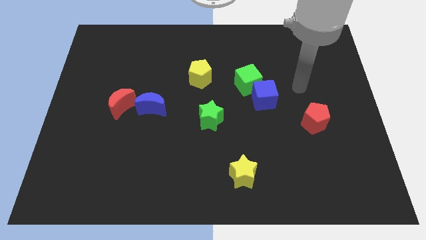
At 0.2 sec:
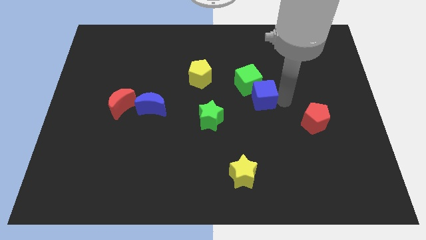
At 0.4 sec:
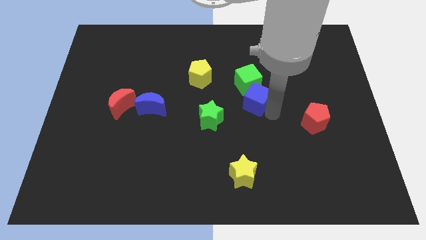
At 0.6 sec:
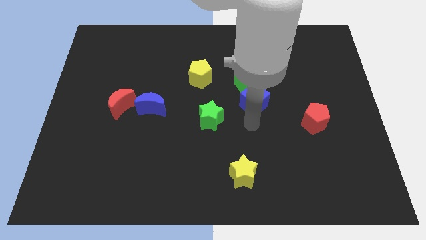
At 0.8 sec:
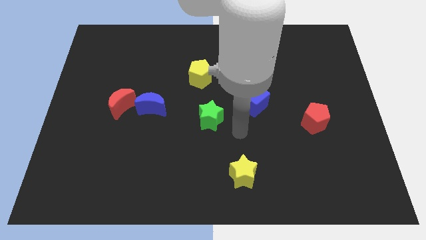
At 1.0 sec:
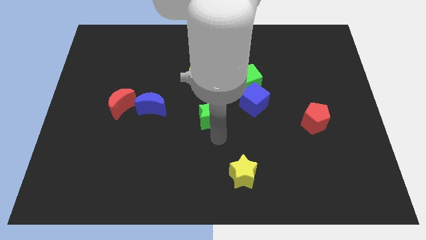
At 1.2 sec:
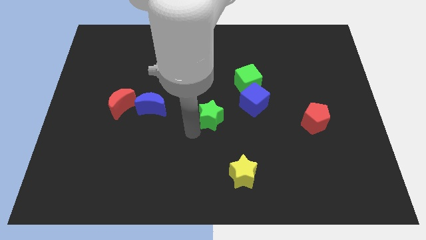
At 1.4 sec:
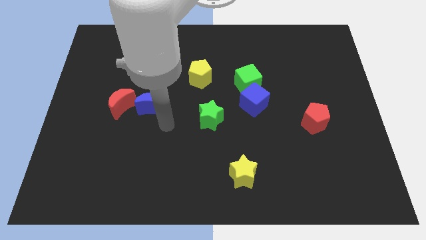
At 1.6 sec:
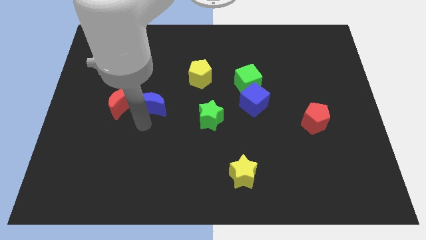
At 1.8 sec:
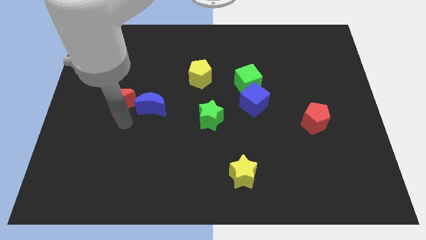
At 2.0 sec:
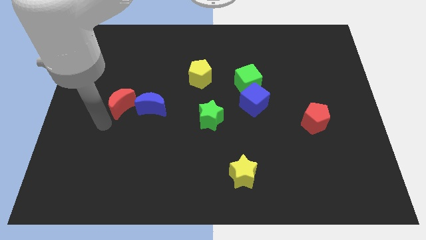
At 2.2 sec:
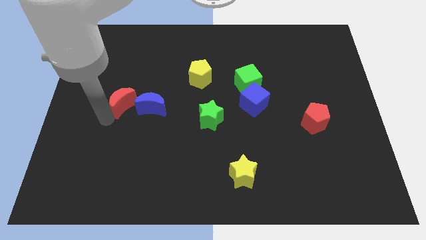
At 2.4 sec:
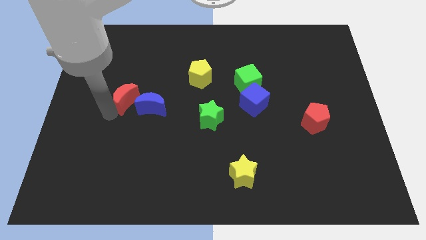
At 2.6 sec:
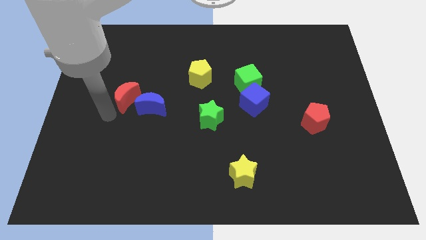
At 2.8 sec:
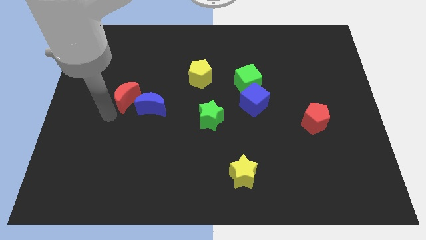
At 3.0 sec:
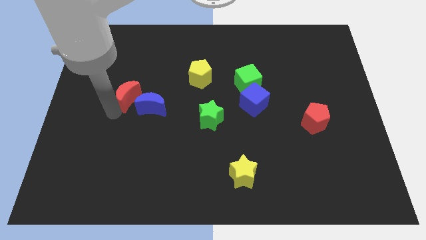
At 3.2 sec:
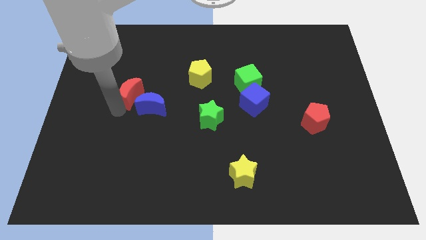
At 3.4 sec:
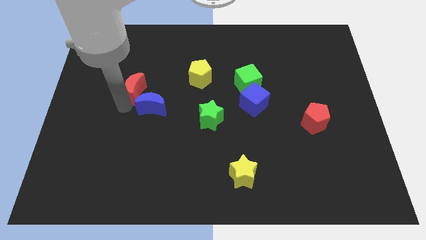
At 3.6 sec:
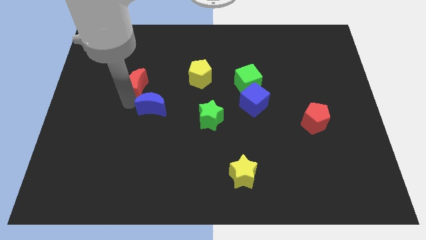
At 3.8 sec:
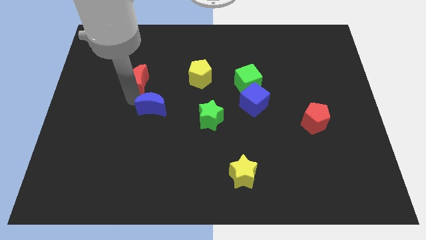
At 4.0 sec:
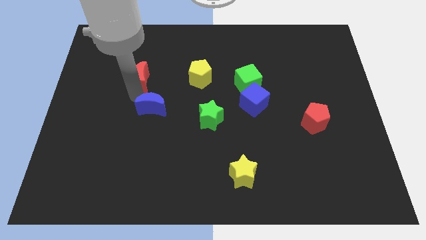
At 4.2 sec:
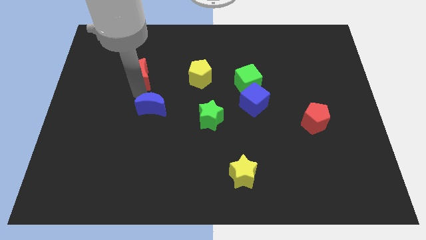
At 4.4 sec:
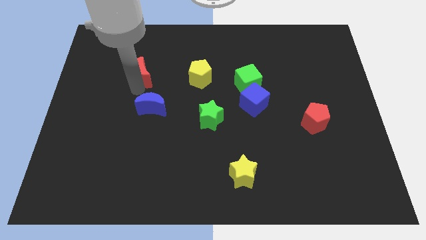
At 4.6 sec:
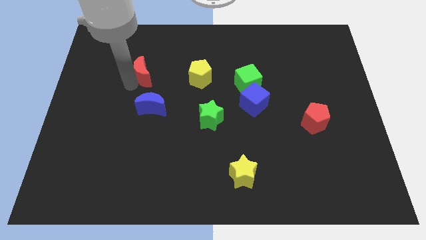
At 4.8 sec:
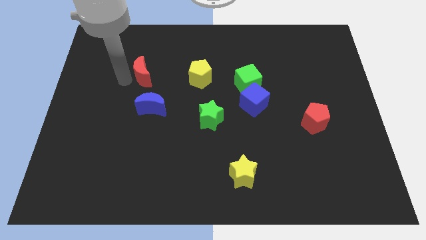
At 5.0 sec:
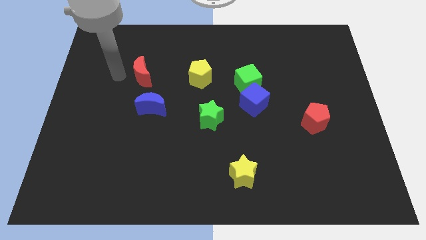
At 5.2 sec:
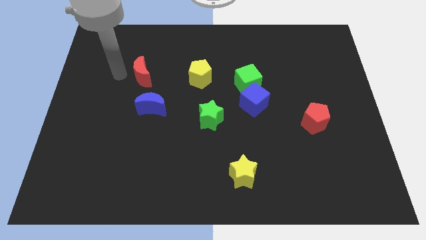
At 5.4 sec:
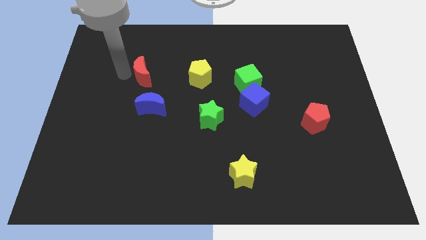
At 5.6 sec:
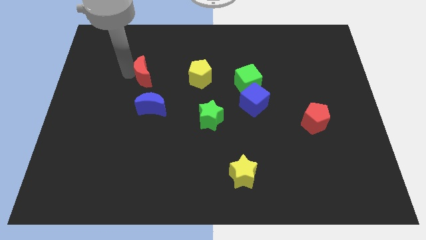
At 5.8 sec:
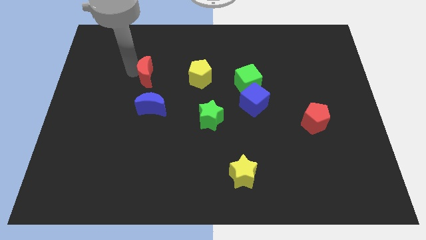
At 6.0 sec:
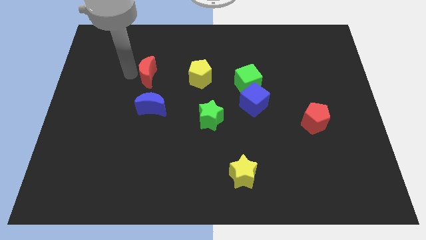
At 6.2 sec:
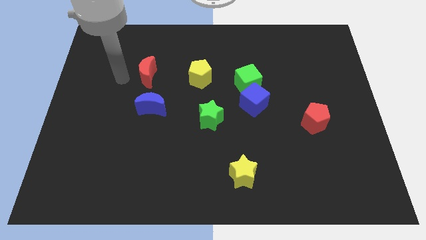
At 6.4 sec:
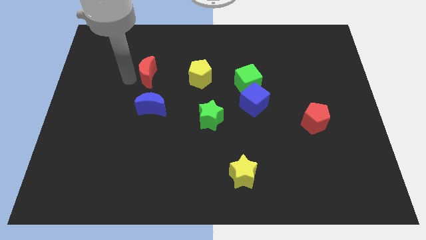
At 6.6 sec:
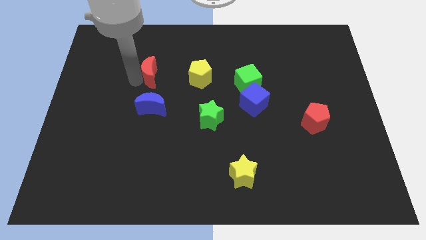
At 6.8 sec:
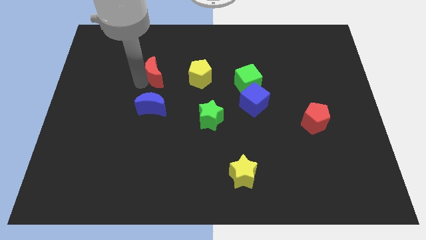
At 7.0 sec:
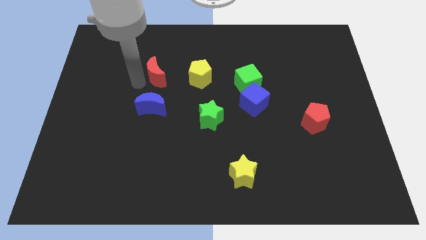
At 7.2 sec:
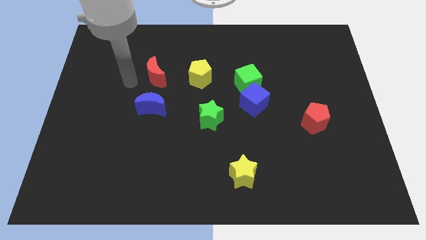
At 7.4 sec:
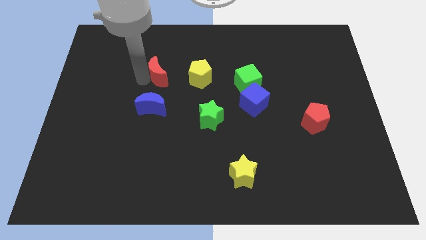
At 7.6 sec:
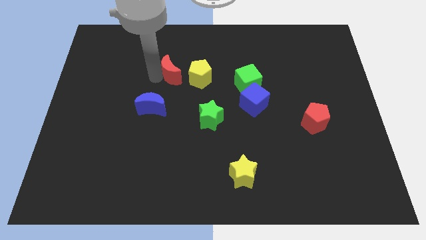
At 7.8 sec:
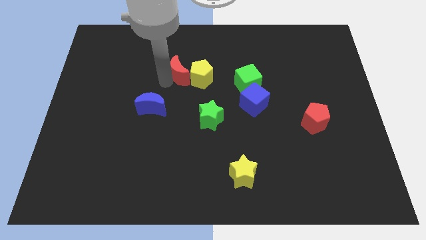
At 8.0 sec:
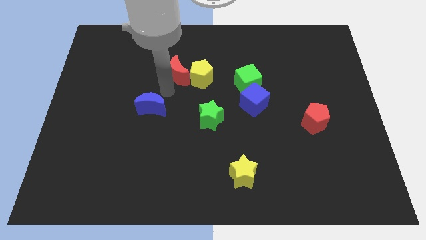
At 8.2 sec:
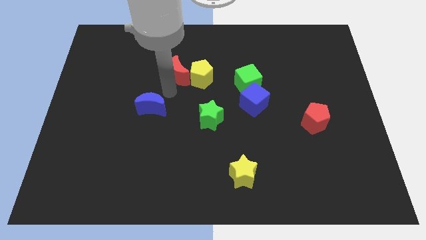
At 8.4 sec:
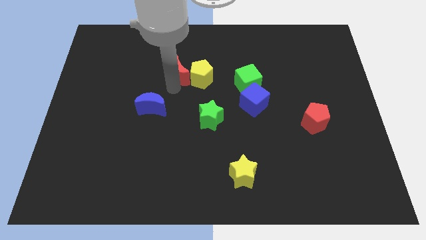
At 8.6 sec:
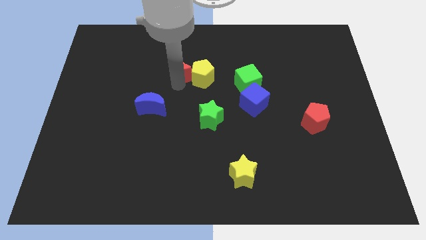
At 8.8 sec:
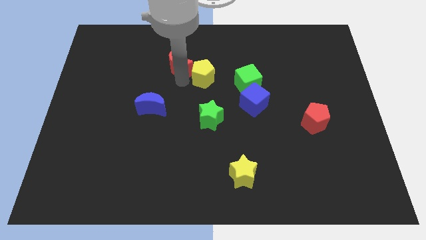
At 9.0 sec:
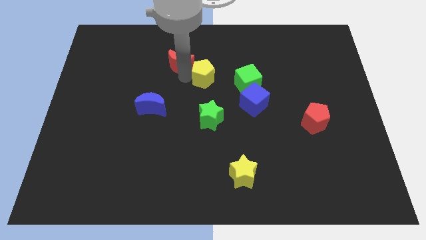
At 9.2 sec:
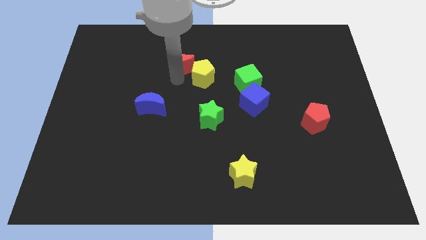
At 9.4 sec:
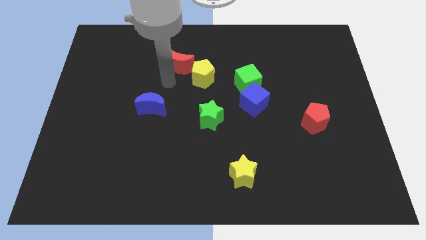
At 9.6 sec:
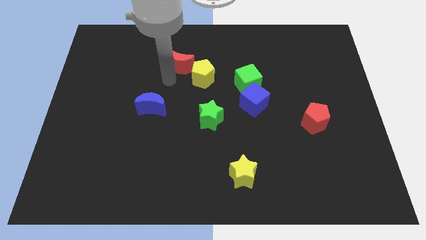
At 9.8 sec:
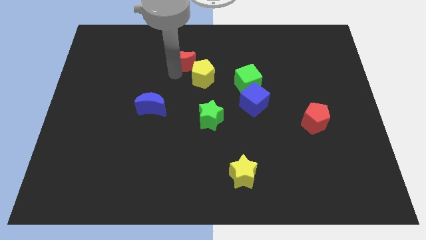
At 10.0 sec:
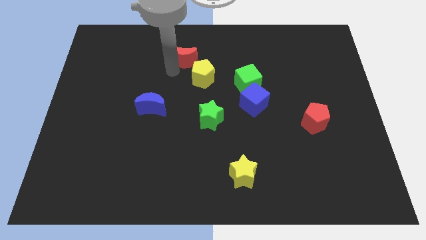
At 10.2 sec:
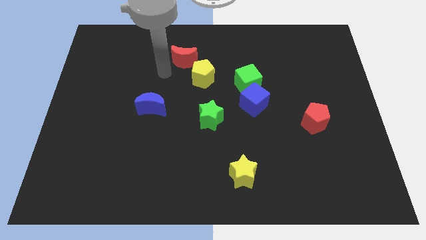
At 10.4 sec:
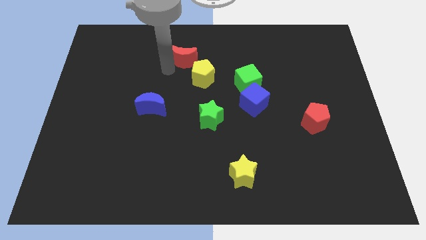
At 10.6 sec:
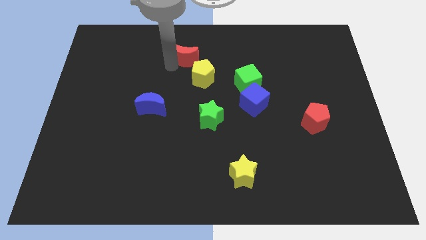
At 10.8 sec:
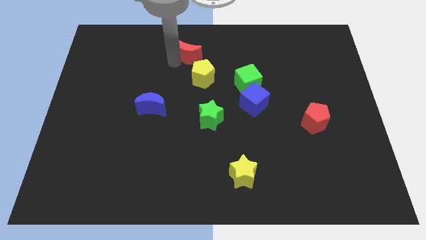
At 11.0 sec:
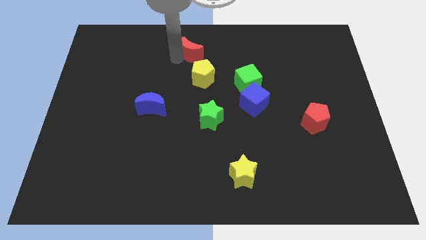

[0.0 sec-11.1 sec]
push the red moon to the top side

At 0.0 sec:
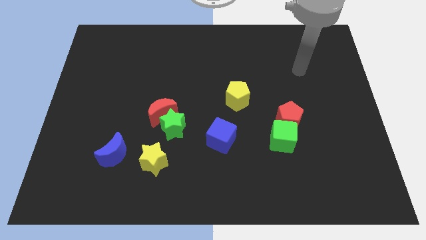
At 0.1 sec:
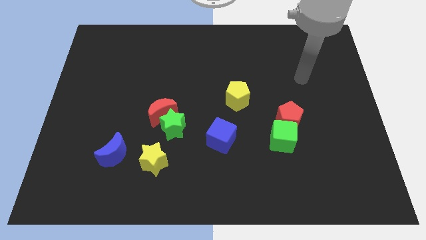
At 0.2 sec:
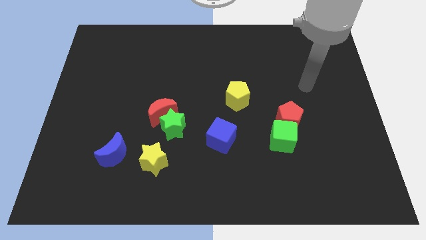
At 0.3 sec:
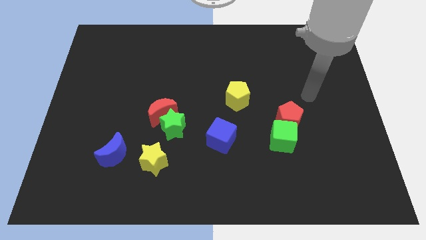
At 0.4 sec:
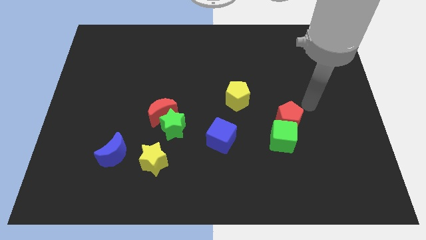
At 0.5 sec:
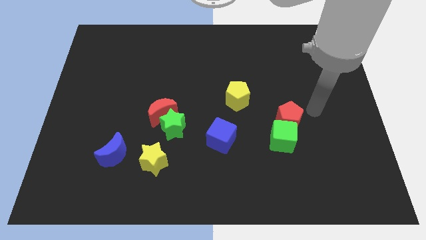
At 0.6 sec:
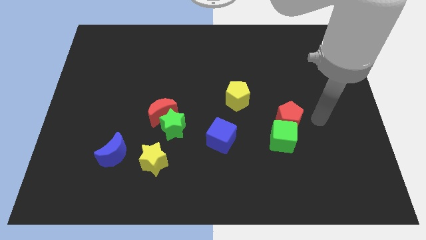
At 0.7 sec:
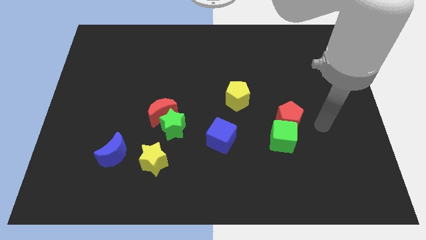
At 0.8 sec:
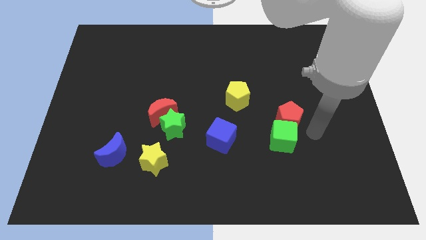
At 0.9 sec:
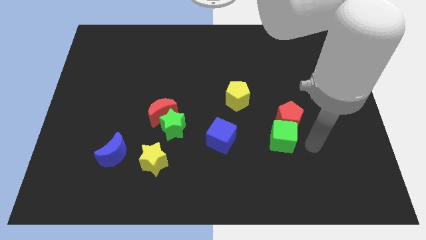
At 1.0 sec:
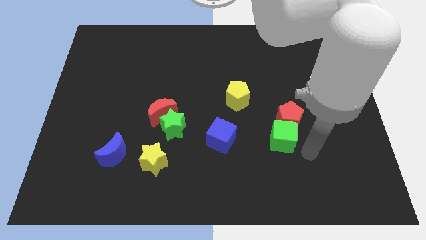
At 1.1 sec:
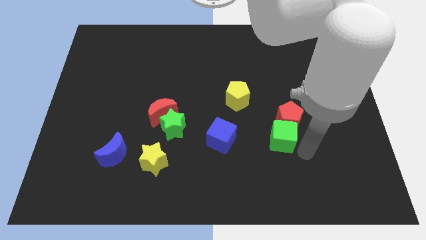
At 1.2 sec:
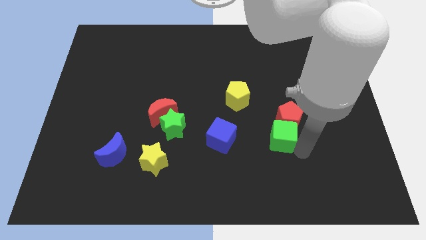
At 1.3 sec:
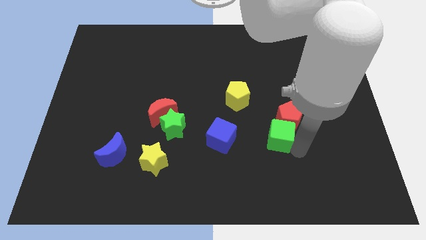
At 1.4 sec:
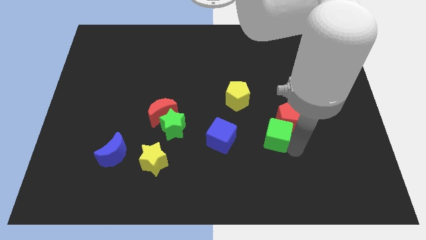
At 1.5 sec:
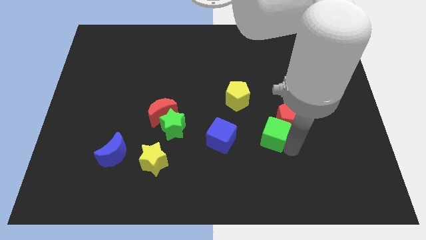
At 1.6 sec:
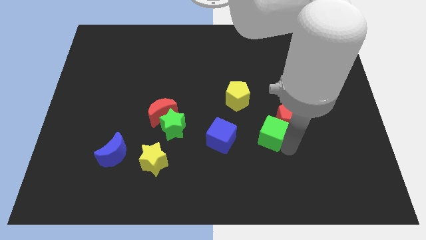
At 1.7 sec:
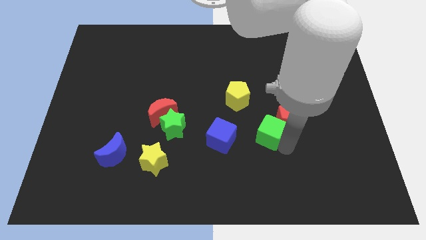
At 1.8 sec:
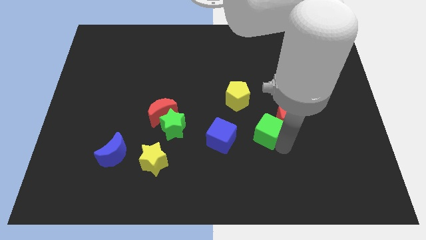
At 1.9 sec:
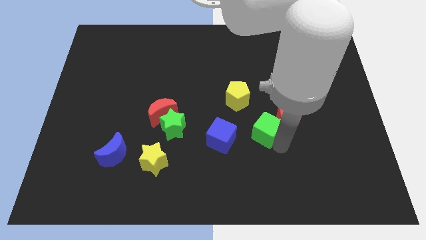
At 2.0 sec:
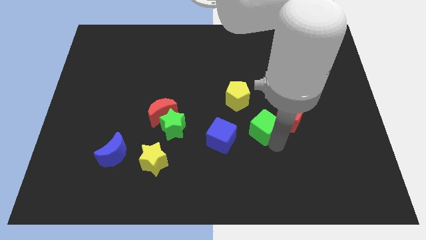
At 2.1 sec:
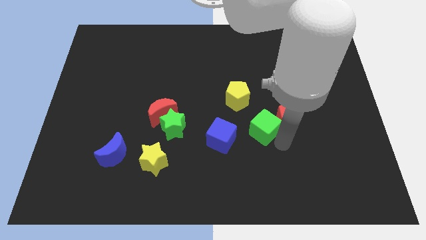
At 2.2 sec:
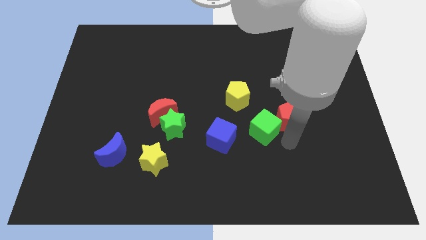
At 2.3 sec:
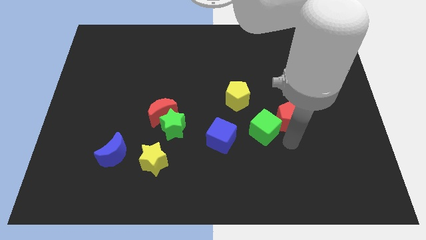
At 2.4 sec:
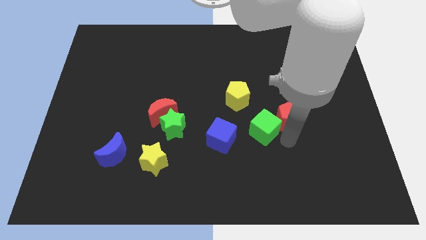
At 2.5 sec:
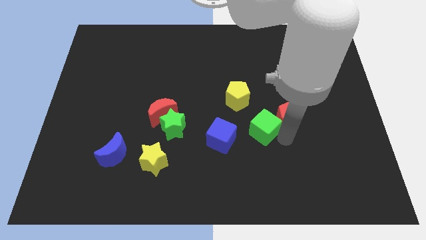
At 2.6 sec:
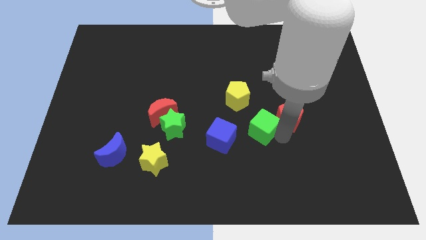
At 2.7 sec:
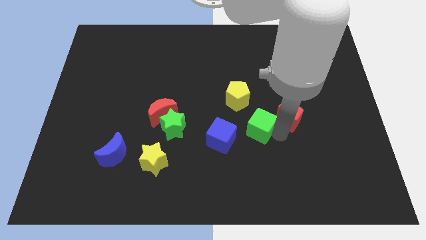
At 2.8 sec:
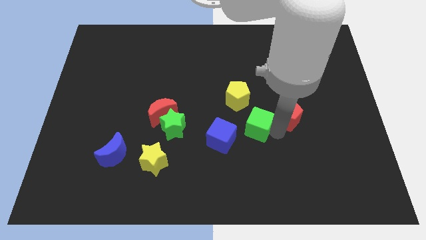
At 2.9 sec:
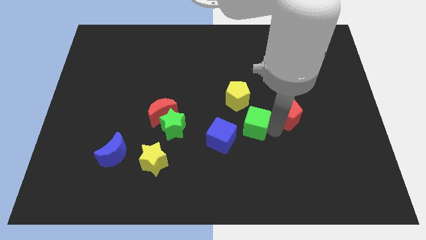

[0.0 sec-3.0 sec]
slide the green cube to the middle of the board
